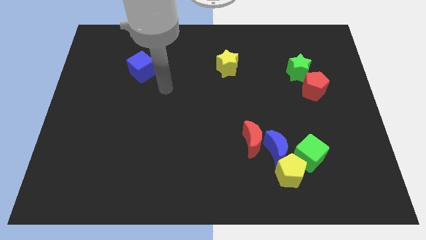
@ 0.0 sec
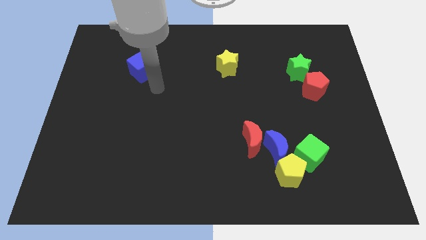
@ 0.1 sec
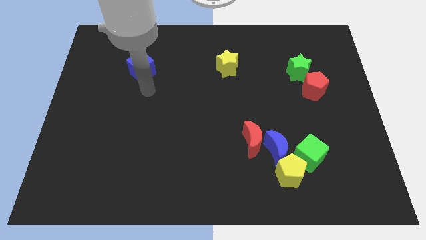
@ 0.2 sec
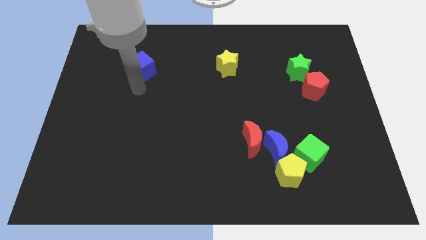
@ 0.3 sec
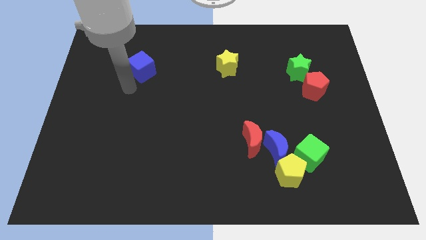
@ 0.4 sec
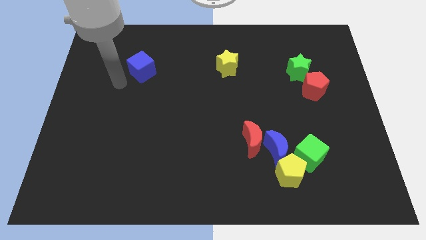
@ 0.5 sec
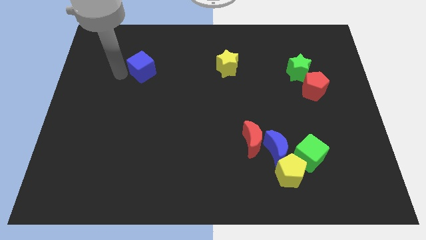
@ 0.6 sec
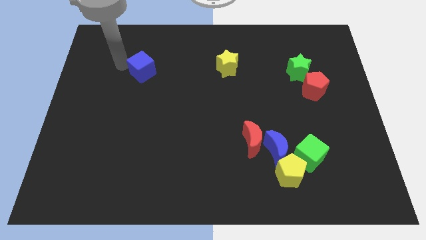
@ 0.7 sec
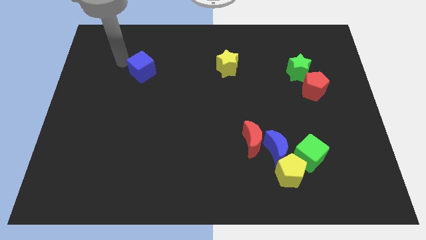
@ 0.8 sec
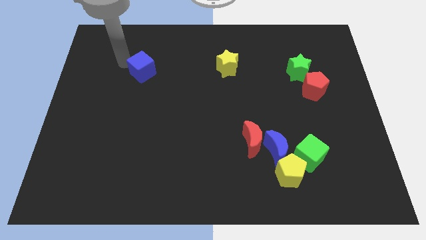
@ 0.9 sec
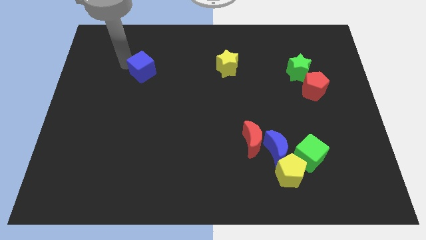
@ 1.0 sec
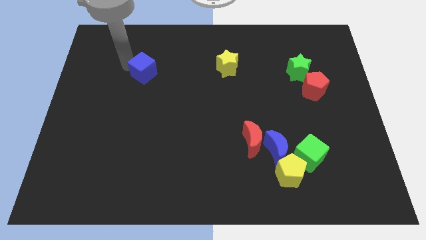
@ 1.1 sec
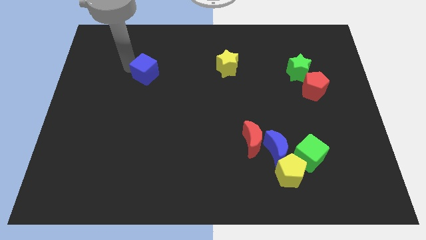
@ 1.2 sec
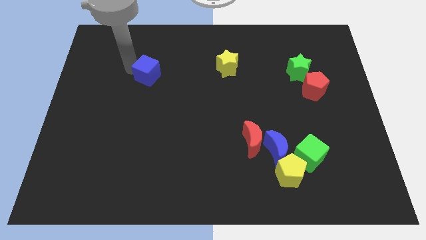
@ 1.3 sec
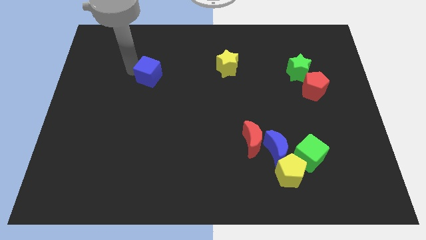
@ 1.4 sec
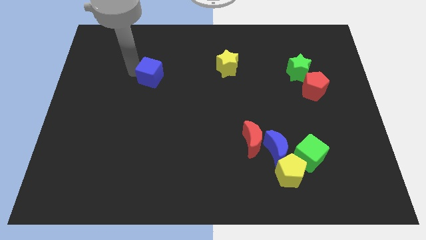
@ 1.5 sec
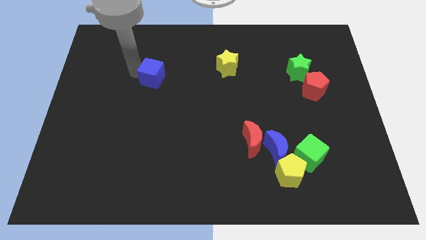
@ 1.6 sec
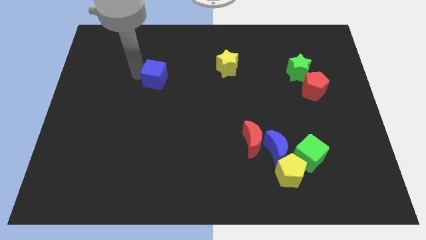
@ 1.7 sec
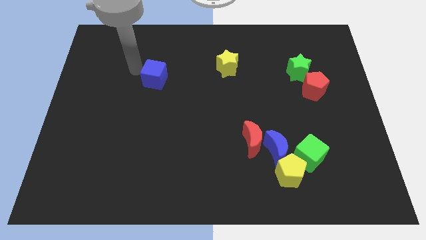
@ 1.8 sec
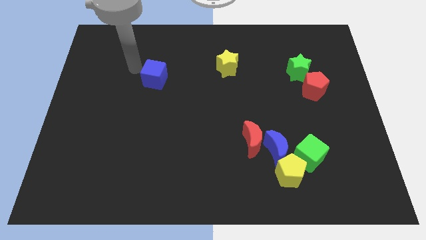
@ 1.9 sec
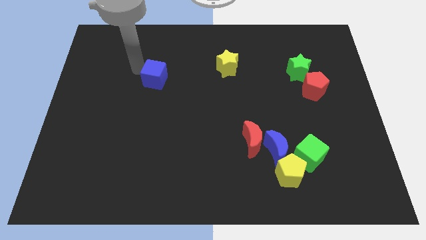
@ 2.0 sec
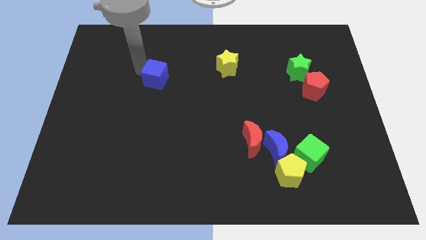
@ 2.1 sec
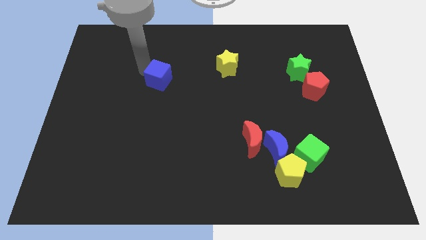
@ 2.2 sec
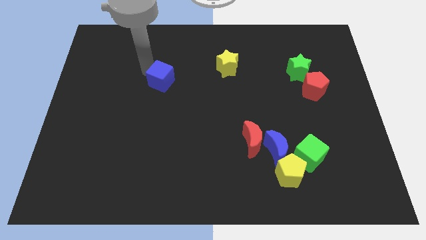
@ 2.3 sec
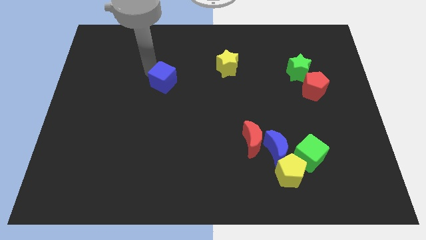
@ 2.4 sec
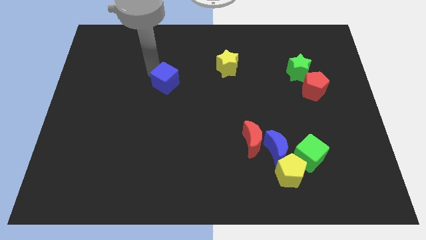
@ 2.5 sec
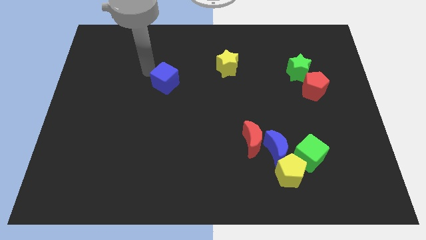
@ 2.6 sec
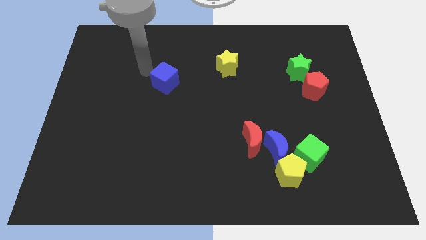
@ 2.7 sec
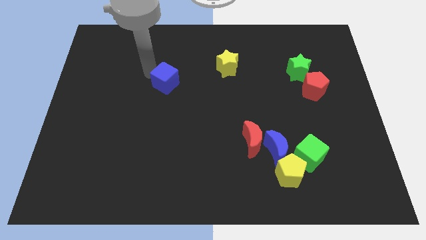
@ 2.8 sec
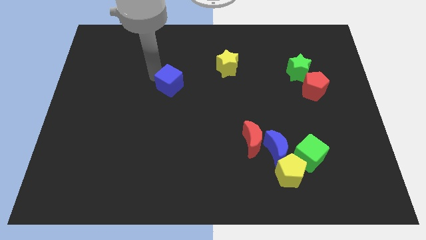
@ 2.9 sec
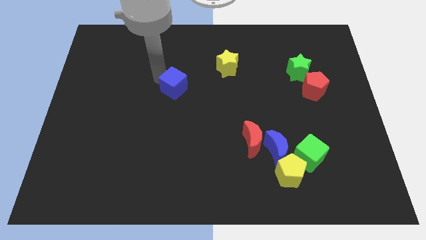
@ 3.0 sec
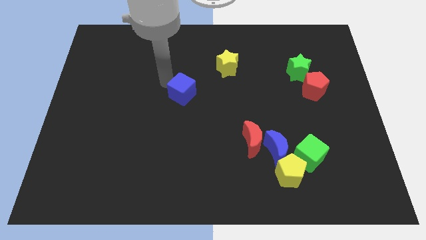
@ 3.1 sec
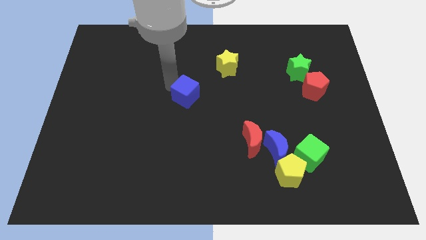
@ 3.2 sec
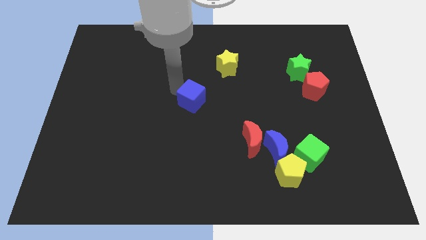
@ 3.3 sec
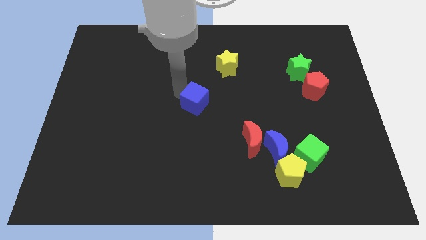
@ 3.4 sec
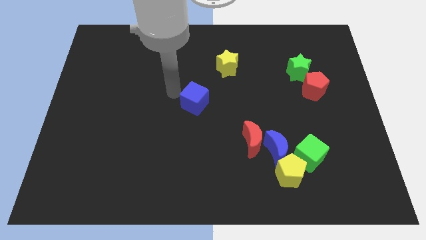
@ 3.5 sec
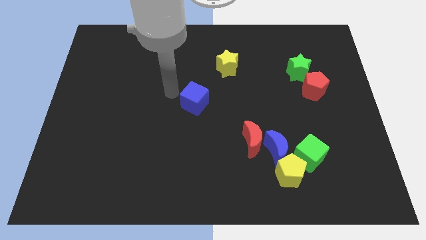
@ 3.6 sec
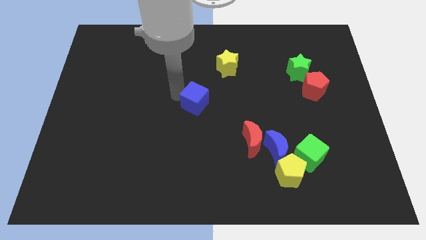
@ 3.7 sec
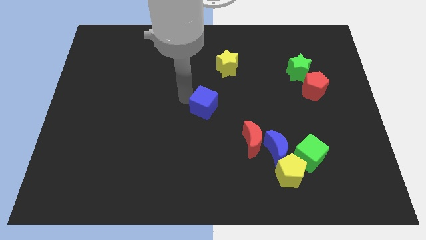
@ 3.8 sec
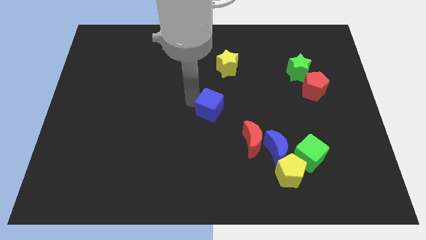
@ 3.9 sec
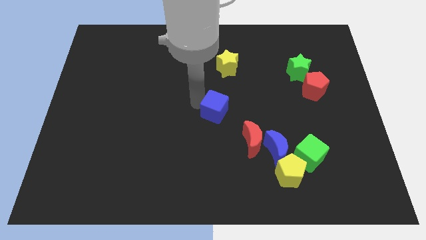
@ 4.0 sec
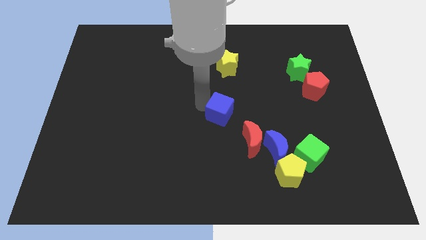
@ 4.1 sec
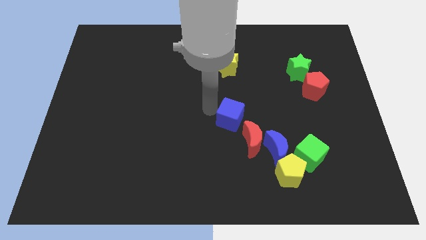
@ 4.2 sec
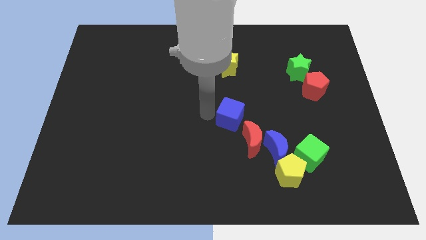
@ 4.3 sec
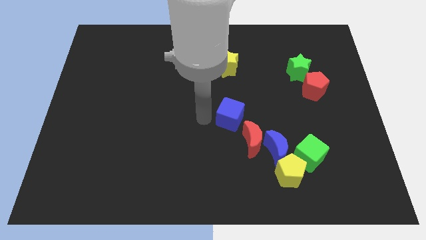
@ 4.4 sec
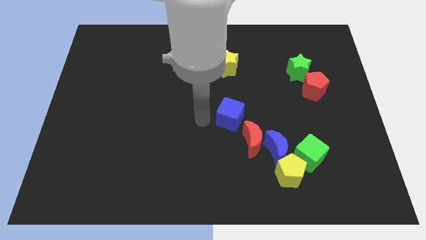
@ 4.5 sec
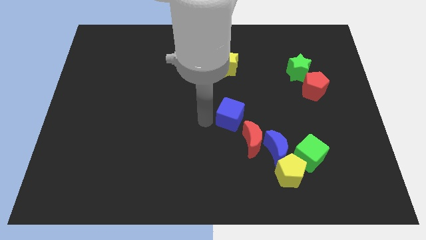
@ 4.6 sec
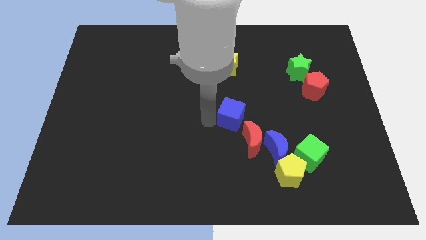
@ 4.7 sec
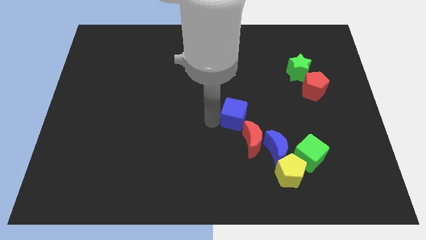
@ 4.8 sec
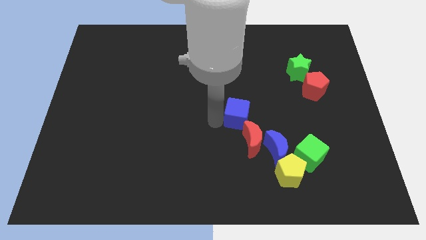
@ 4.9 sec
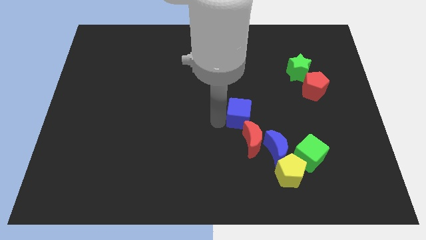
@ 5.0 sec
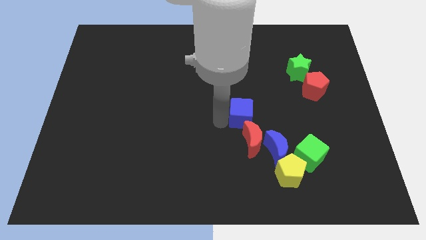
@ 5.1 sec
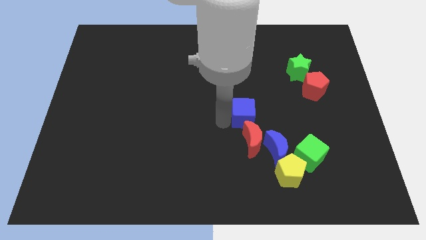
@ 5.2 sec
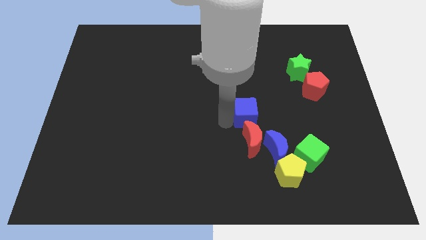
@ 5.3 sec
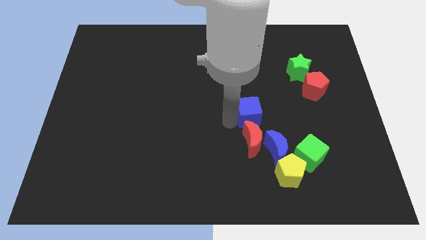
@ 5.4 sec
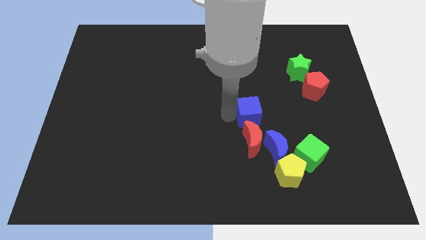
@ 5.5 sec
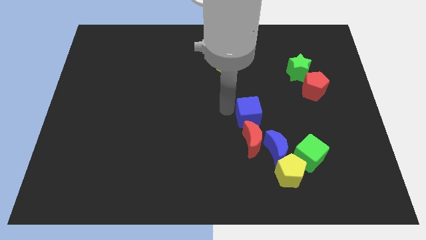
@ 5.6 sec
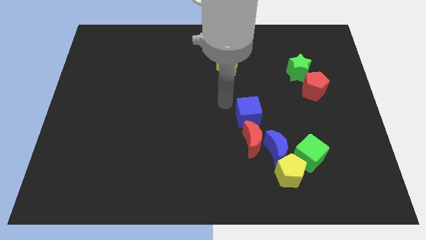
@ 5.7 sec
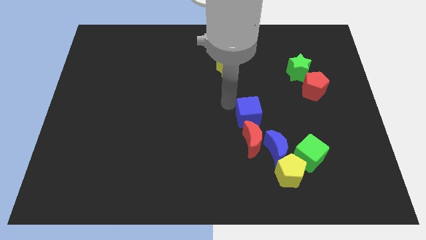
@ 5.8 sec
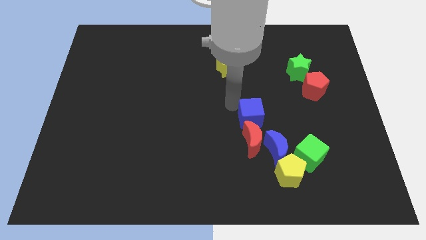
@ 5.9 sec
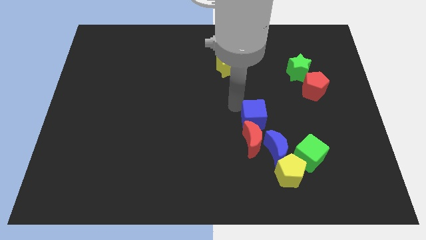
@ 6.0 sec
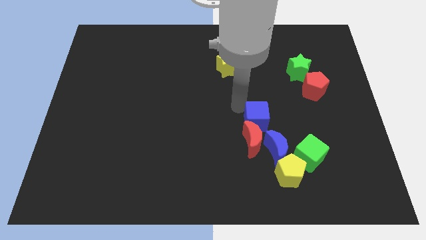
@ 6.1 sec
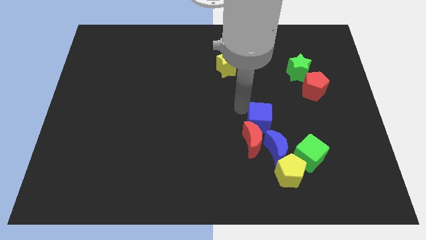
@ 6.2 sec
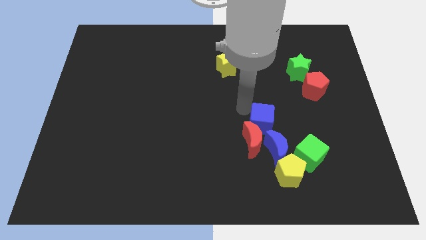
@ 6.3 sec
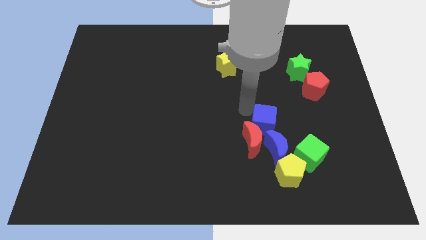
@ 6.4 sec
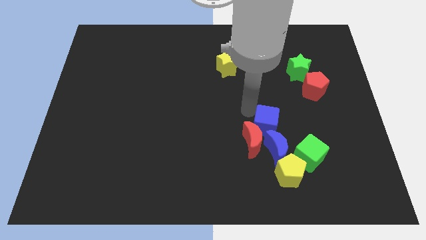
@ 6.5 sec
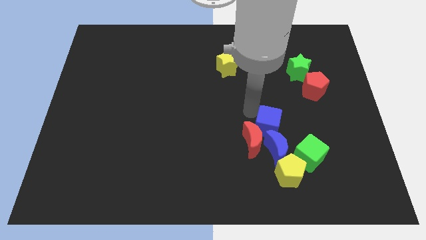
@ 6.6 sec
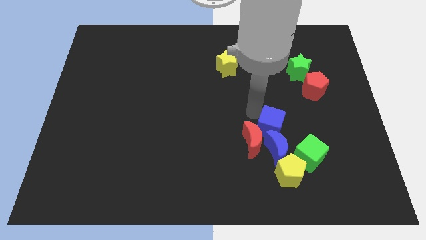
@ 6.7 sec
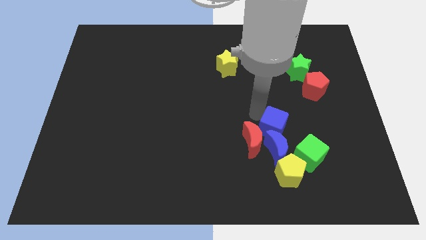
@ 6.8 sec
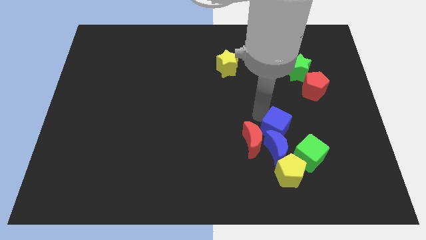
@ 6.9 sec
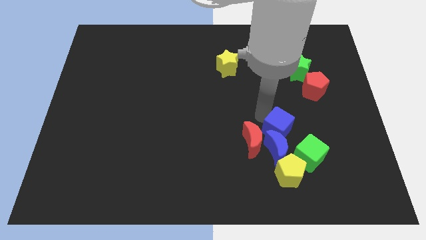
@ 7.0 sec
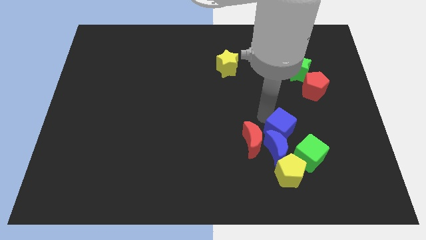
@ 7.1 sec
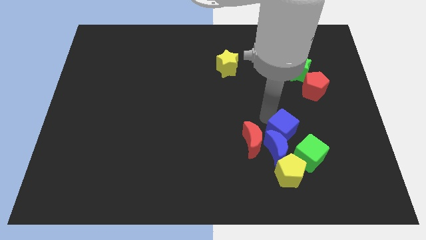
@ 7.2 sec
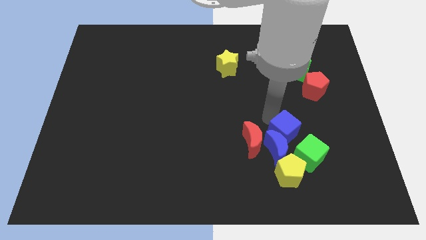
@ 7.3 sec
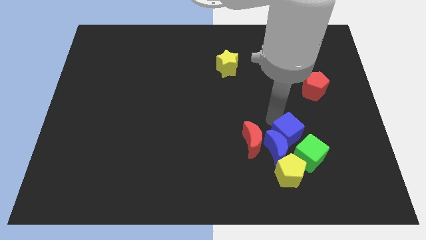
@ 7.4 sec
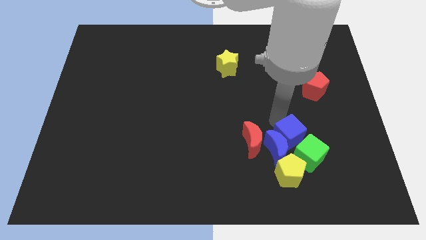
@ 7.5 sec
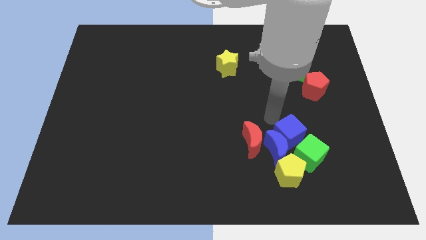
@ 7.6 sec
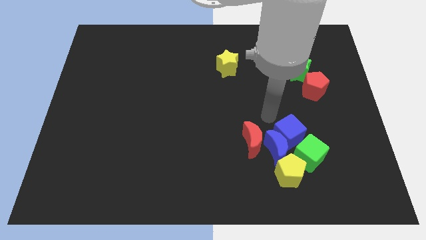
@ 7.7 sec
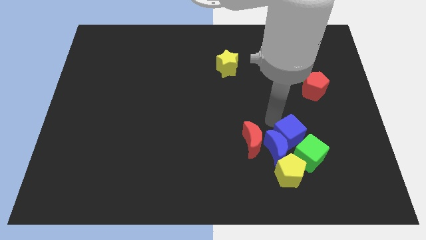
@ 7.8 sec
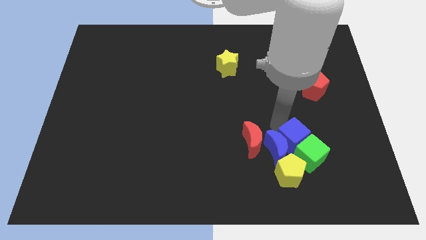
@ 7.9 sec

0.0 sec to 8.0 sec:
put the blue cube next to the green cube
